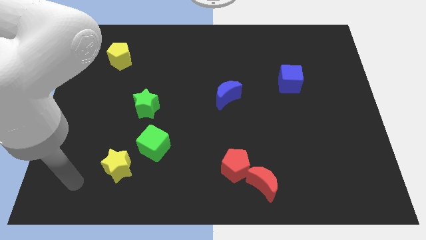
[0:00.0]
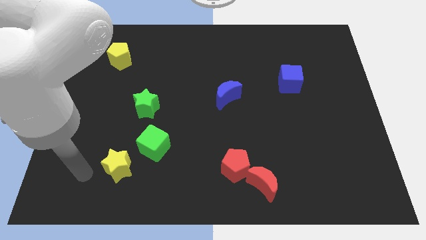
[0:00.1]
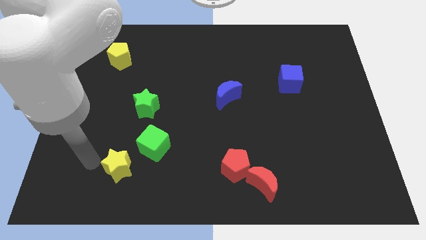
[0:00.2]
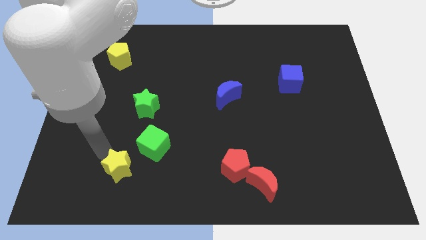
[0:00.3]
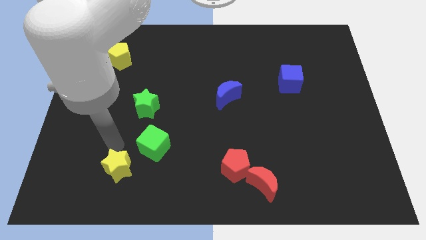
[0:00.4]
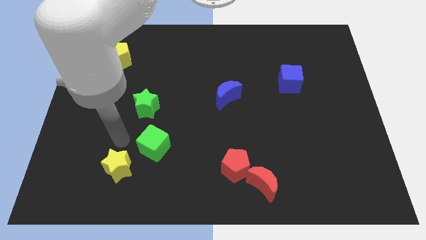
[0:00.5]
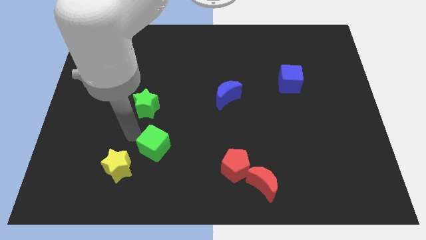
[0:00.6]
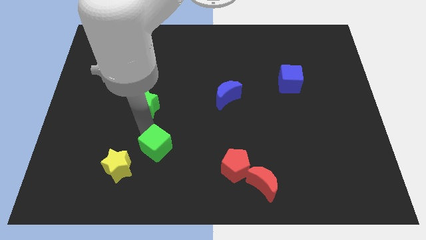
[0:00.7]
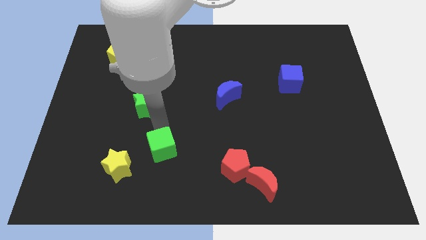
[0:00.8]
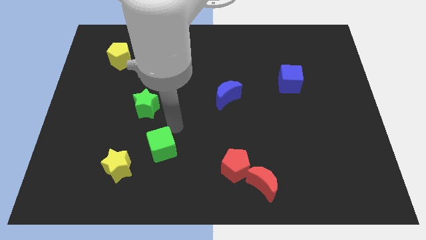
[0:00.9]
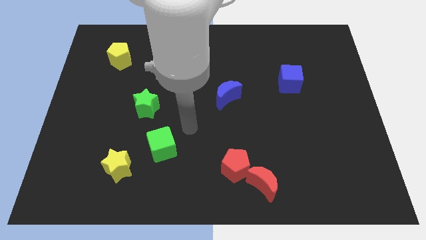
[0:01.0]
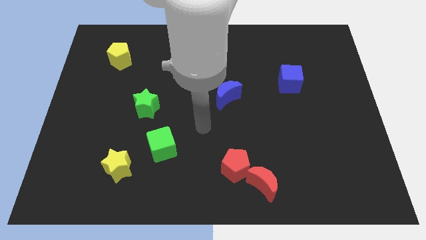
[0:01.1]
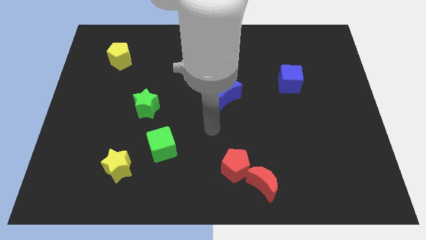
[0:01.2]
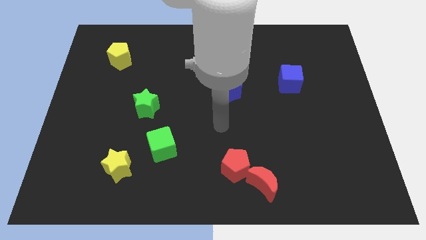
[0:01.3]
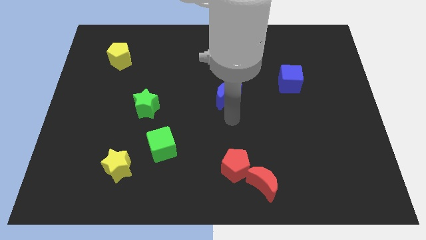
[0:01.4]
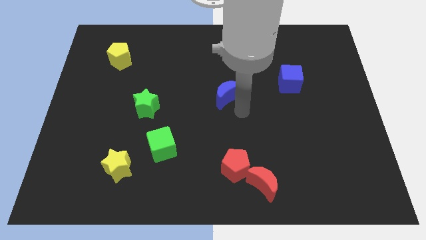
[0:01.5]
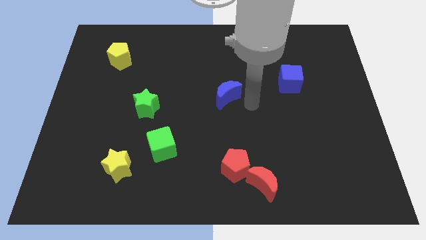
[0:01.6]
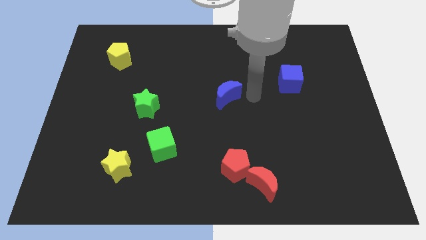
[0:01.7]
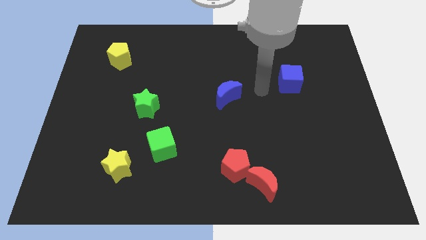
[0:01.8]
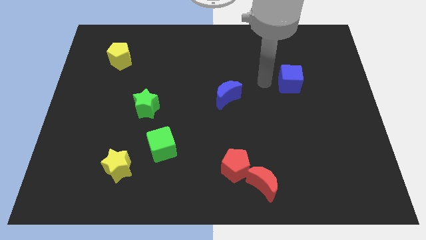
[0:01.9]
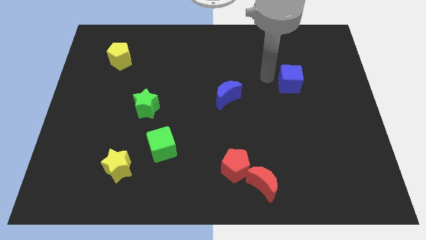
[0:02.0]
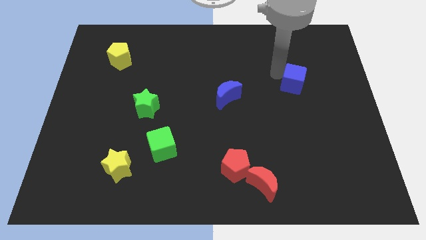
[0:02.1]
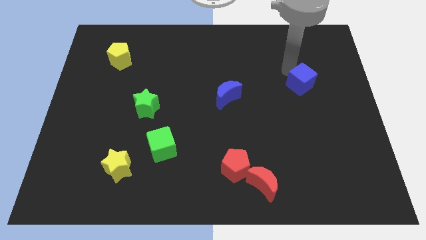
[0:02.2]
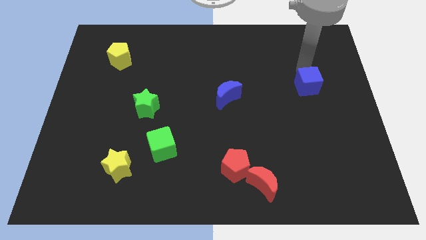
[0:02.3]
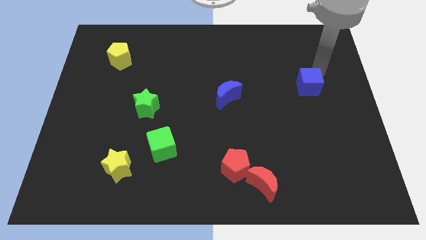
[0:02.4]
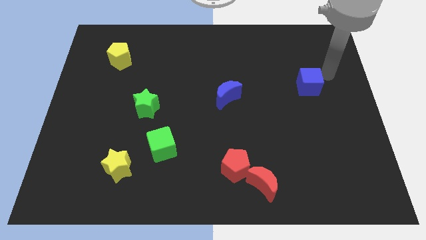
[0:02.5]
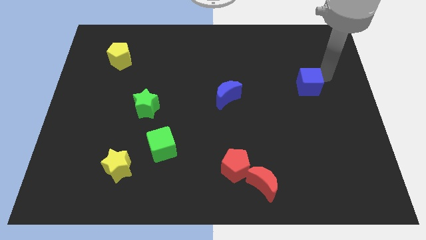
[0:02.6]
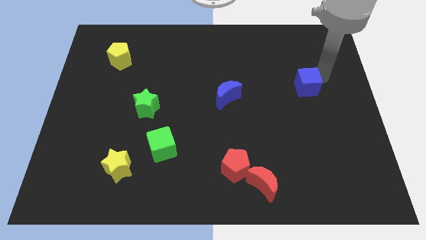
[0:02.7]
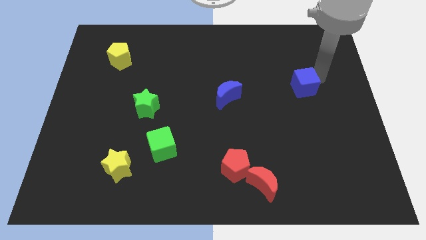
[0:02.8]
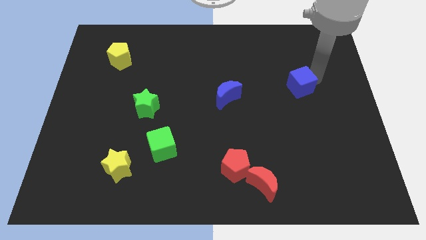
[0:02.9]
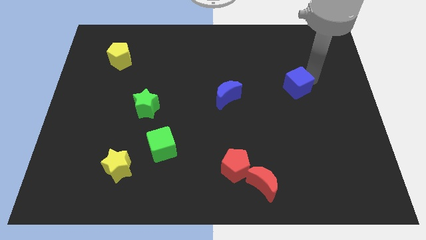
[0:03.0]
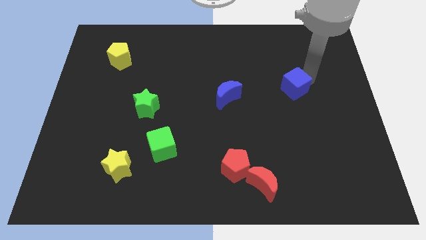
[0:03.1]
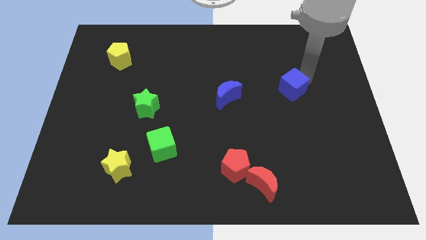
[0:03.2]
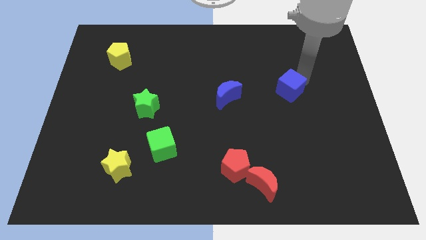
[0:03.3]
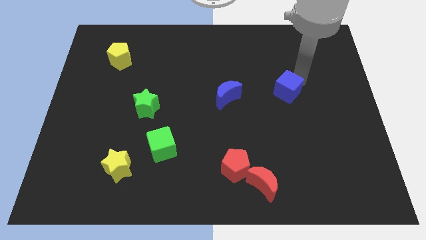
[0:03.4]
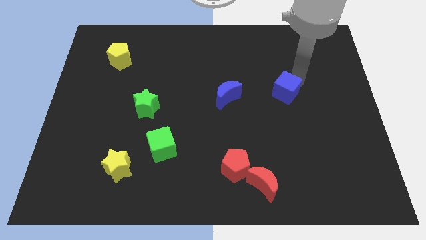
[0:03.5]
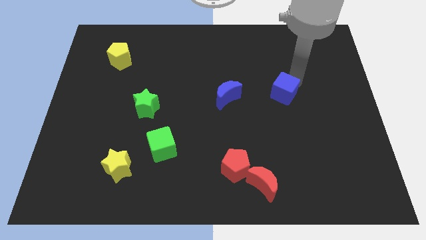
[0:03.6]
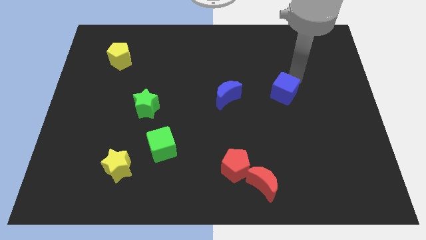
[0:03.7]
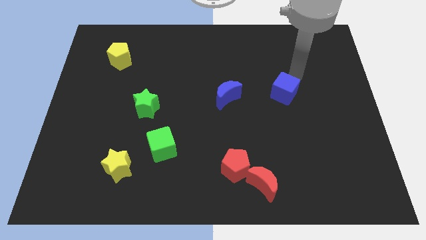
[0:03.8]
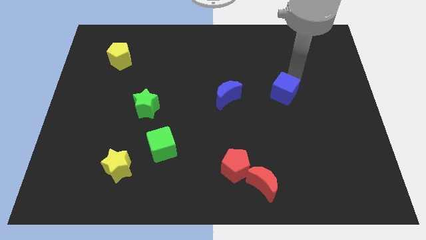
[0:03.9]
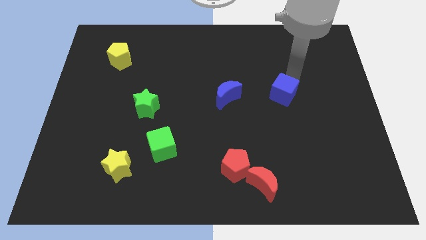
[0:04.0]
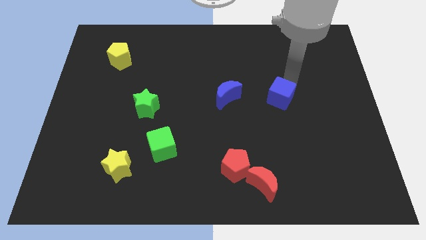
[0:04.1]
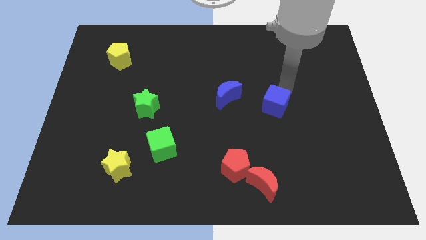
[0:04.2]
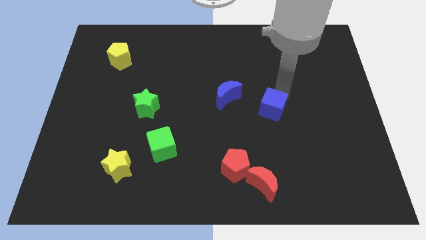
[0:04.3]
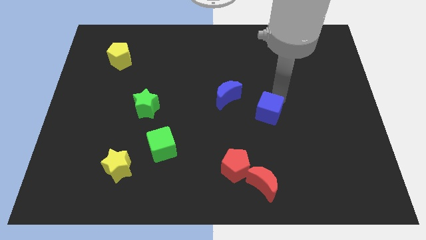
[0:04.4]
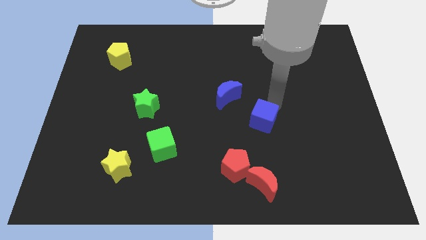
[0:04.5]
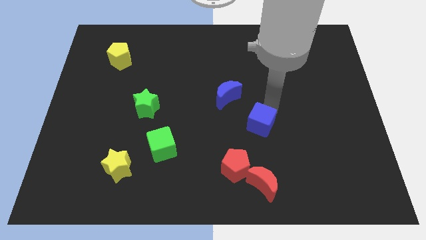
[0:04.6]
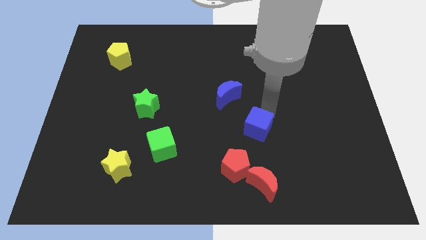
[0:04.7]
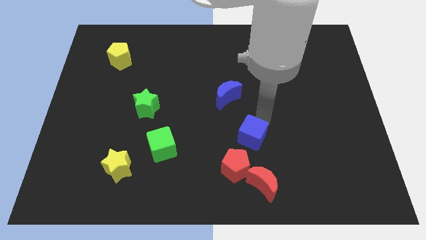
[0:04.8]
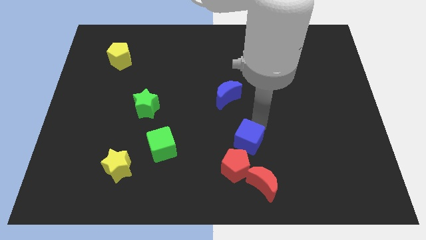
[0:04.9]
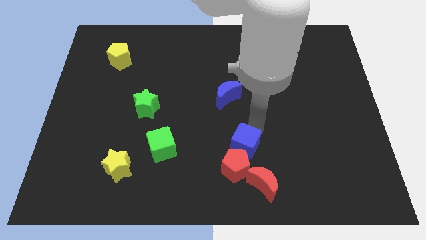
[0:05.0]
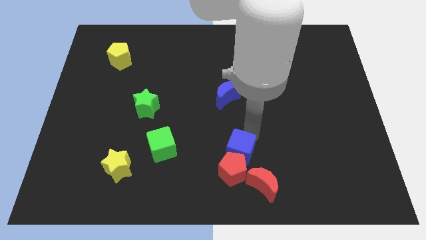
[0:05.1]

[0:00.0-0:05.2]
push the blue cube next to the red pentagon

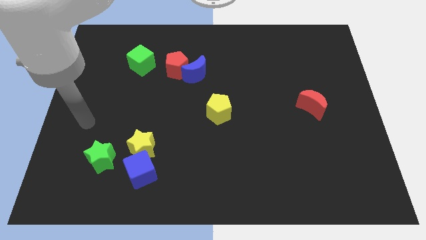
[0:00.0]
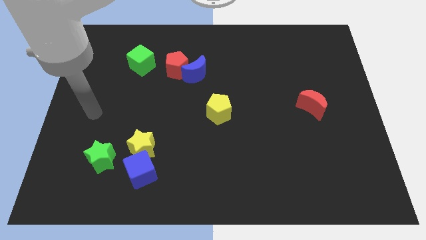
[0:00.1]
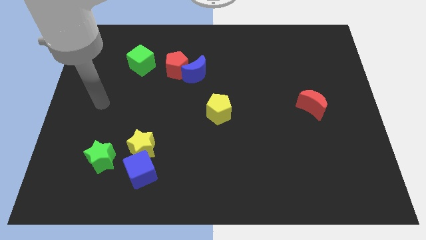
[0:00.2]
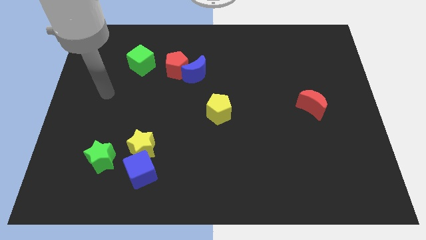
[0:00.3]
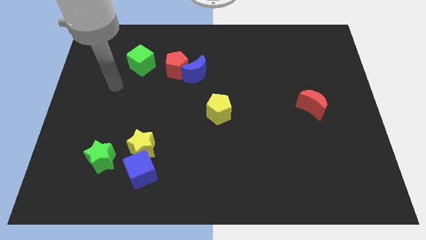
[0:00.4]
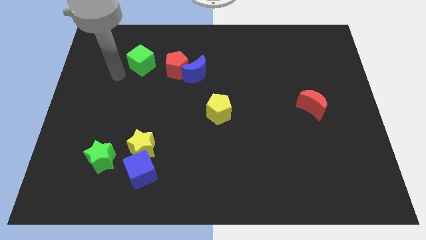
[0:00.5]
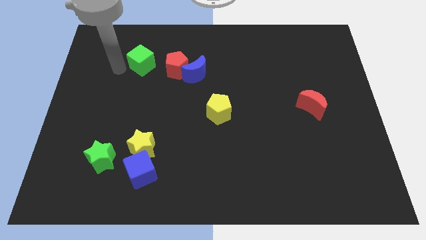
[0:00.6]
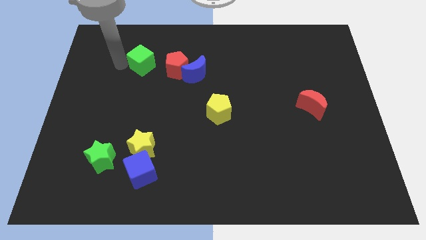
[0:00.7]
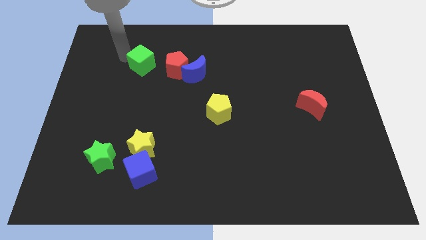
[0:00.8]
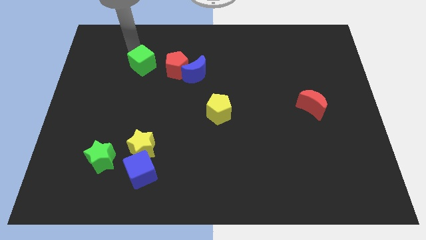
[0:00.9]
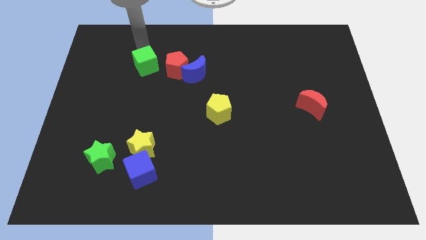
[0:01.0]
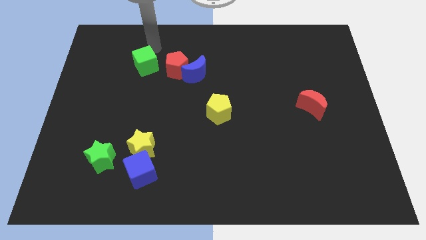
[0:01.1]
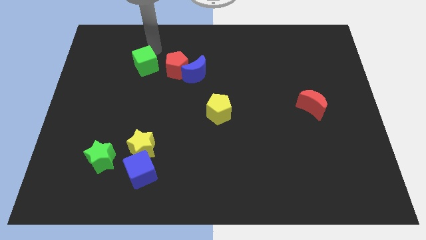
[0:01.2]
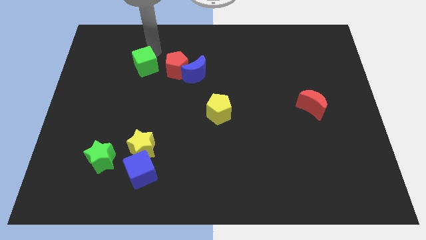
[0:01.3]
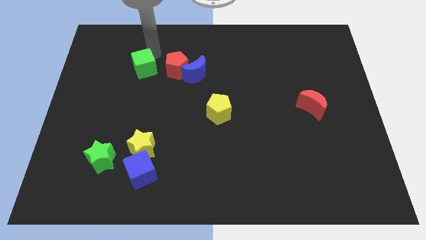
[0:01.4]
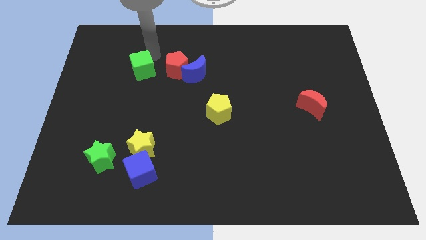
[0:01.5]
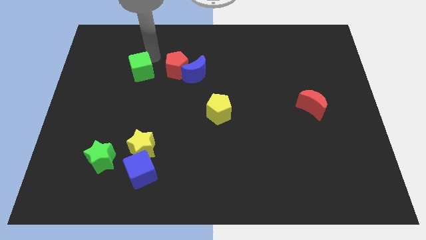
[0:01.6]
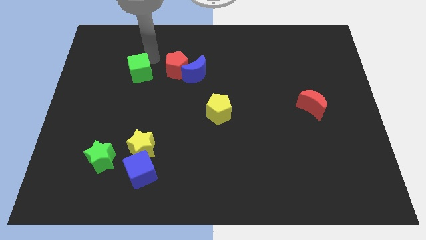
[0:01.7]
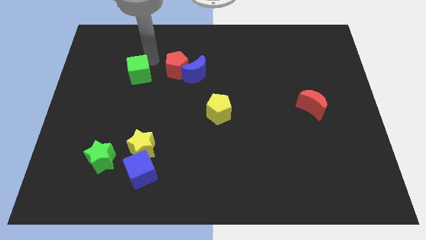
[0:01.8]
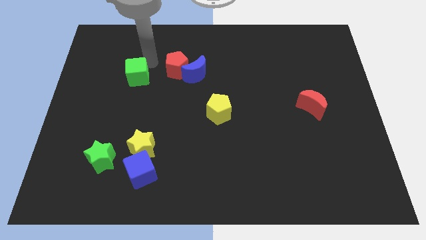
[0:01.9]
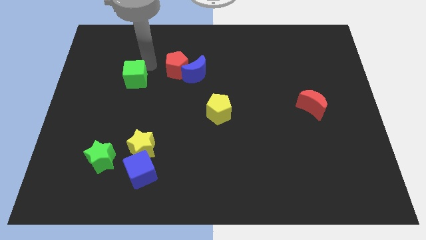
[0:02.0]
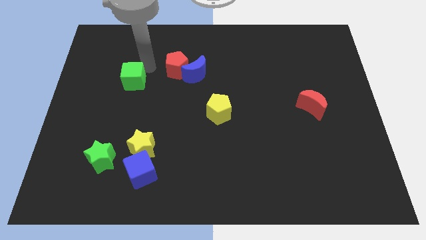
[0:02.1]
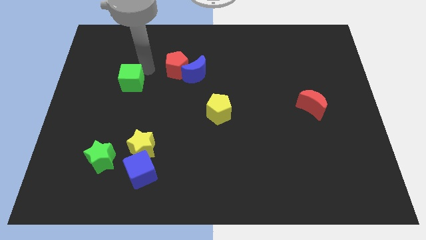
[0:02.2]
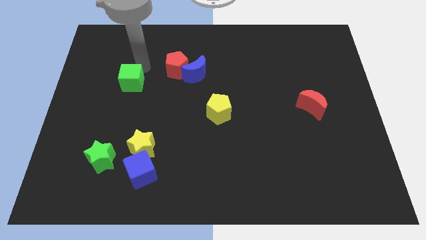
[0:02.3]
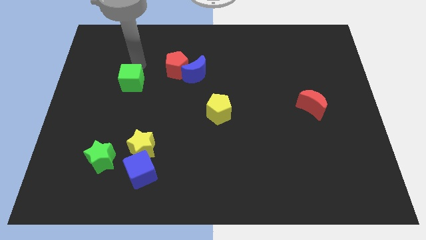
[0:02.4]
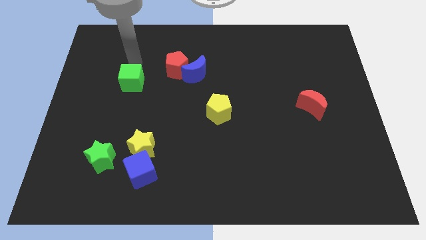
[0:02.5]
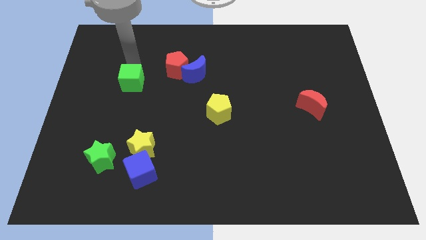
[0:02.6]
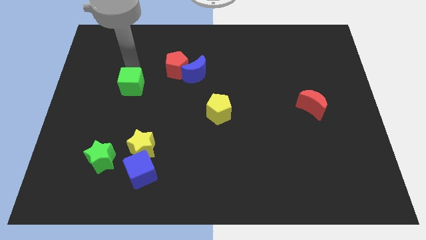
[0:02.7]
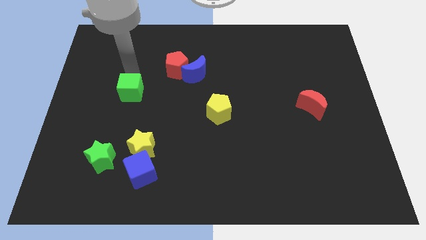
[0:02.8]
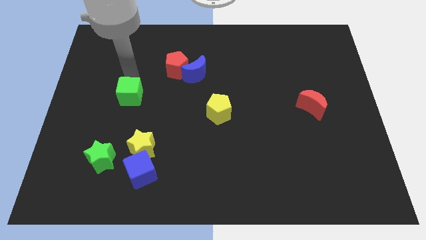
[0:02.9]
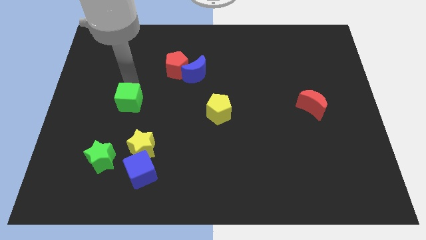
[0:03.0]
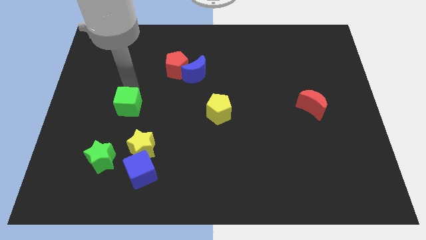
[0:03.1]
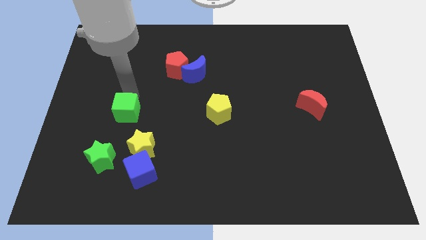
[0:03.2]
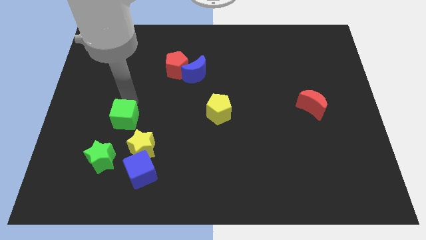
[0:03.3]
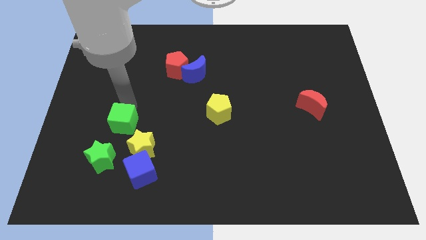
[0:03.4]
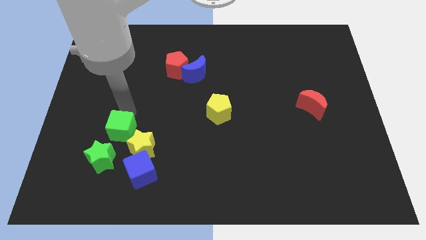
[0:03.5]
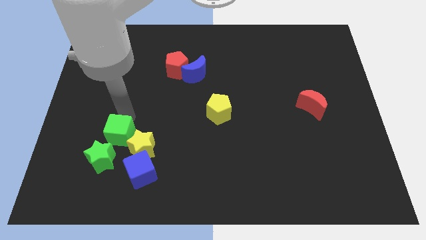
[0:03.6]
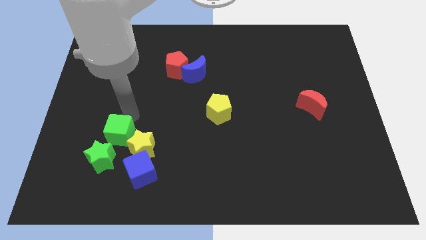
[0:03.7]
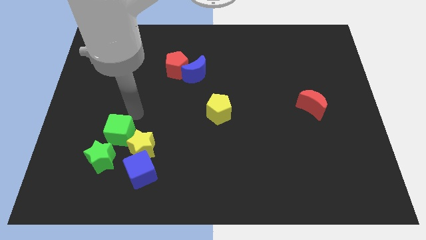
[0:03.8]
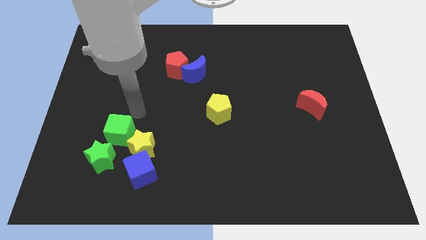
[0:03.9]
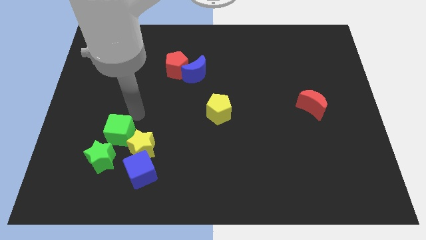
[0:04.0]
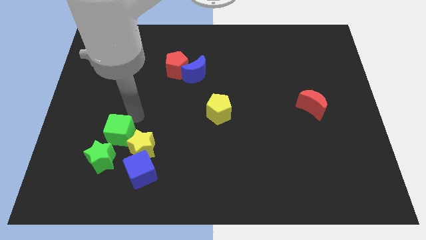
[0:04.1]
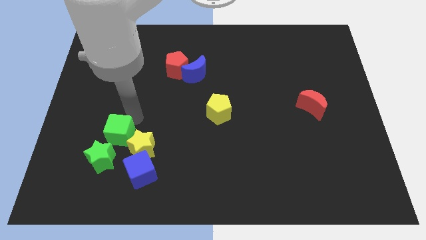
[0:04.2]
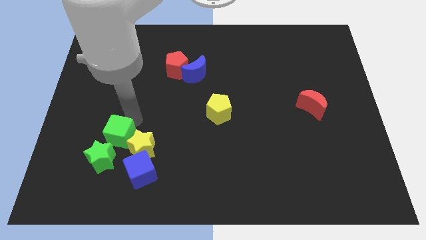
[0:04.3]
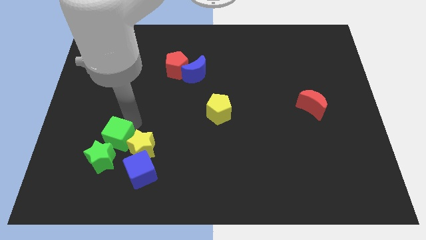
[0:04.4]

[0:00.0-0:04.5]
slide the green cube to the green star
